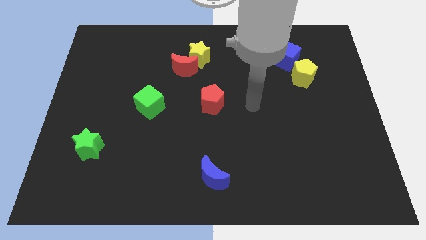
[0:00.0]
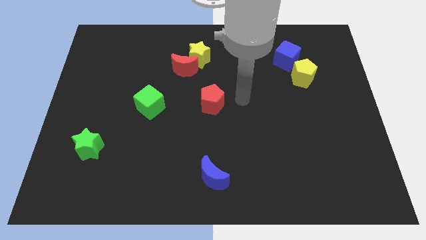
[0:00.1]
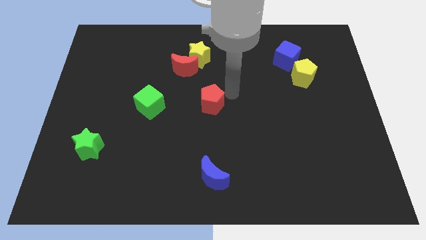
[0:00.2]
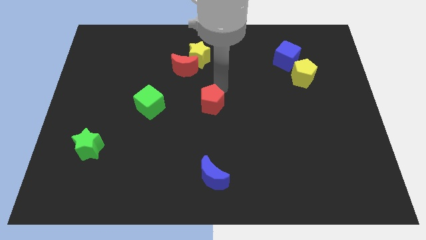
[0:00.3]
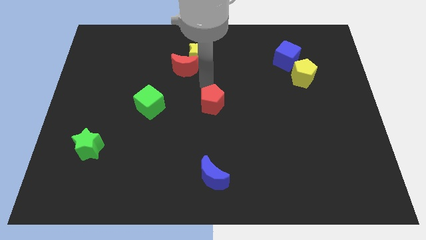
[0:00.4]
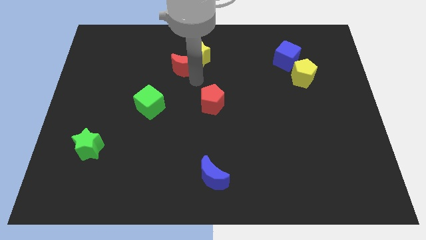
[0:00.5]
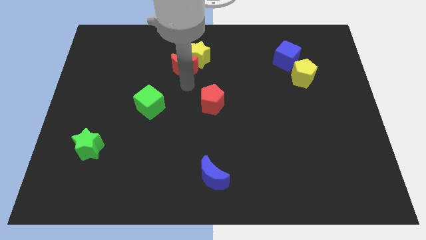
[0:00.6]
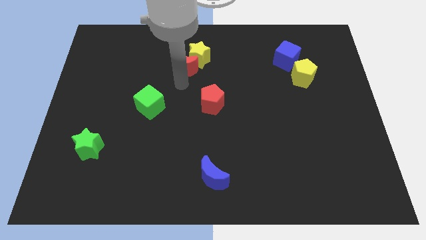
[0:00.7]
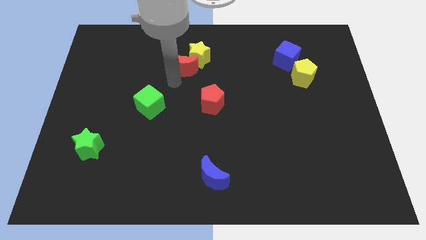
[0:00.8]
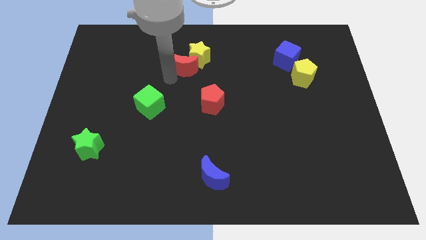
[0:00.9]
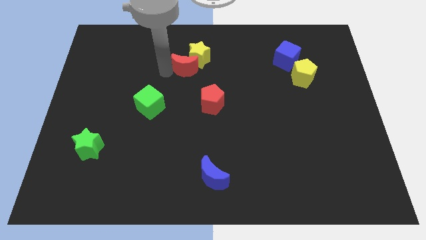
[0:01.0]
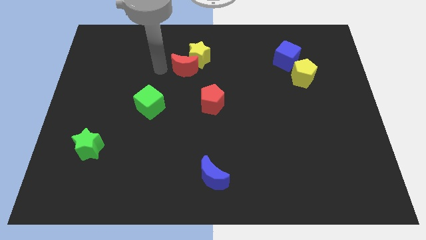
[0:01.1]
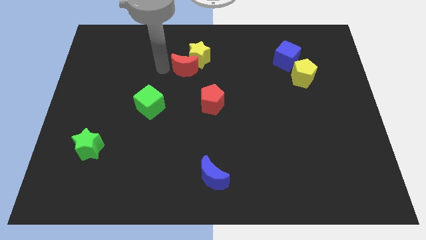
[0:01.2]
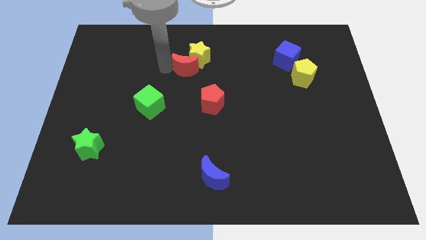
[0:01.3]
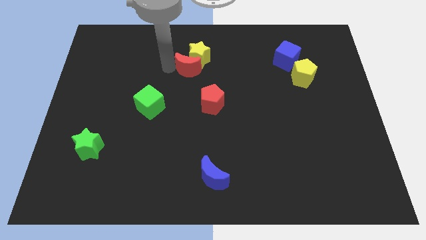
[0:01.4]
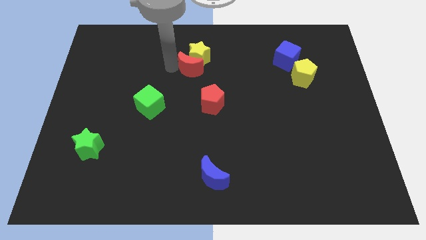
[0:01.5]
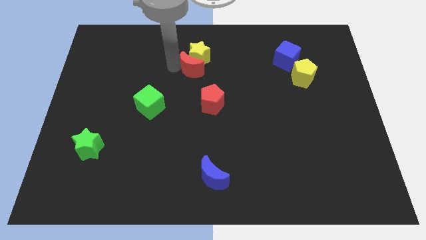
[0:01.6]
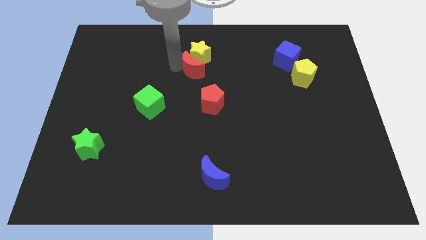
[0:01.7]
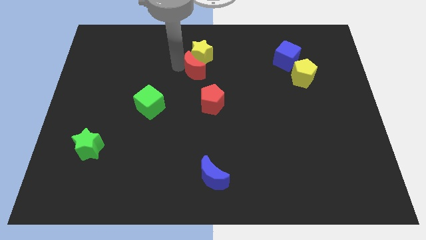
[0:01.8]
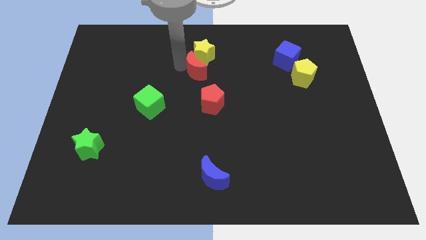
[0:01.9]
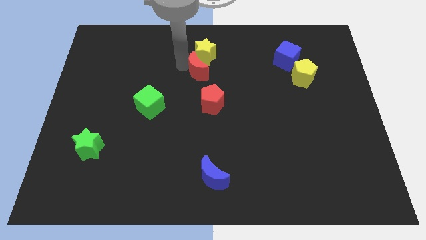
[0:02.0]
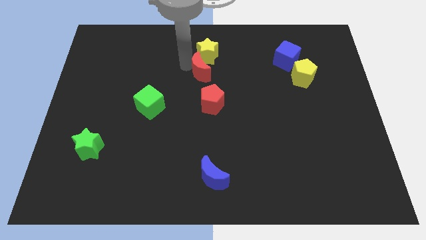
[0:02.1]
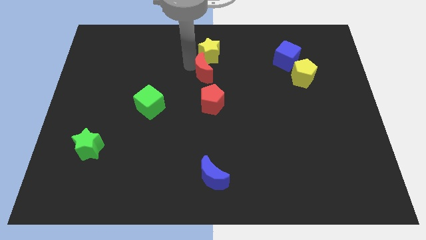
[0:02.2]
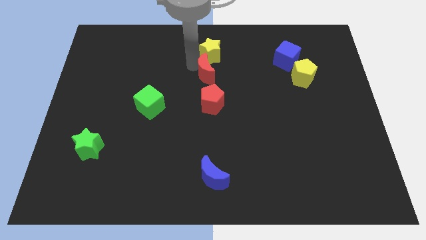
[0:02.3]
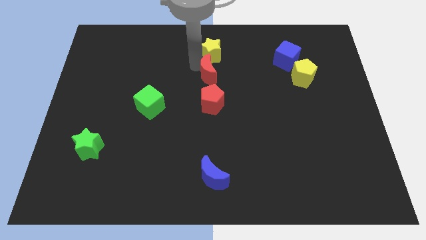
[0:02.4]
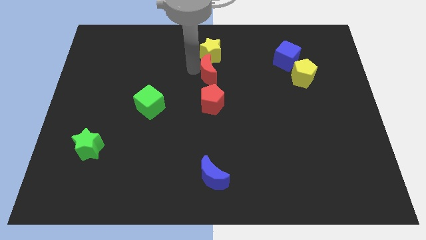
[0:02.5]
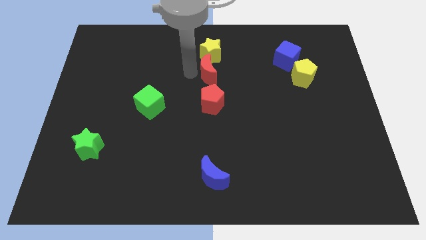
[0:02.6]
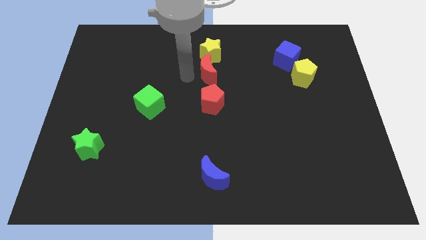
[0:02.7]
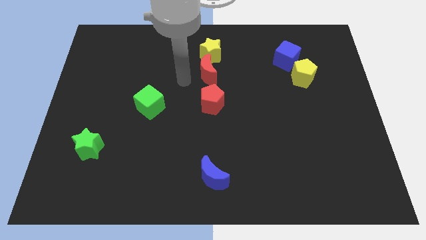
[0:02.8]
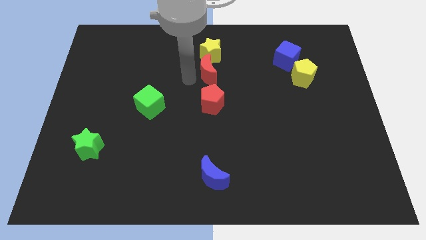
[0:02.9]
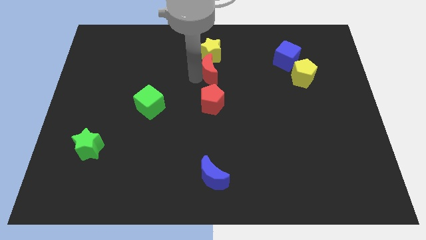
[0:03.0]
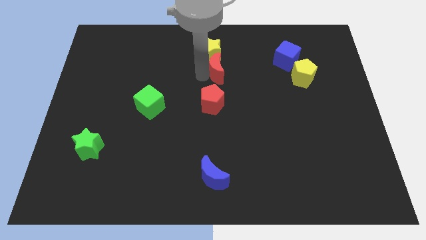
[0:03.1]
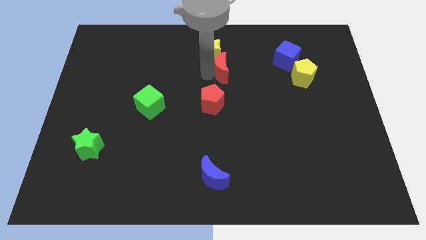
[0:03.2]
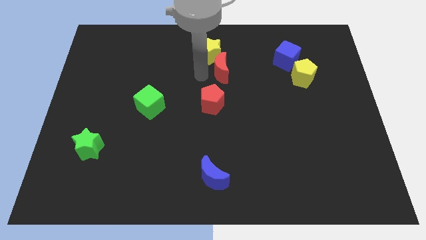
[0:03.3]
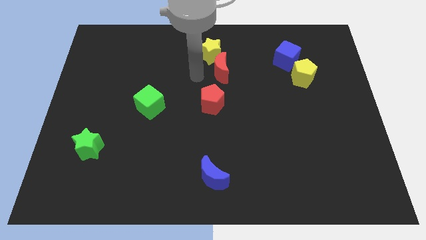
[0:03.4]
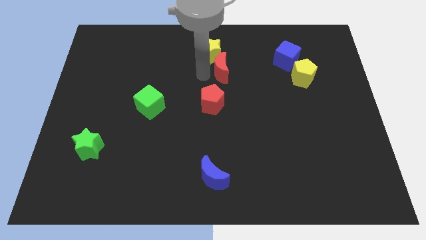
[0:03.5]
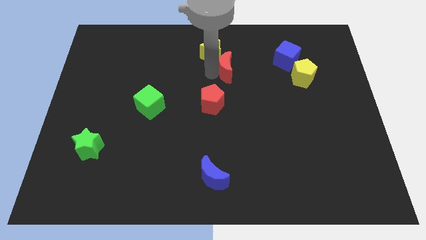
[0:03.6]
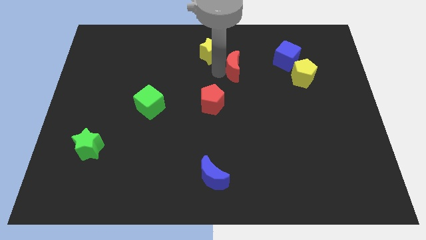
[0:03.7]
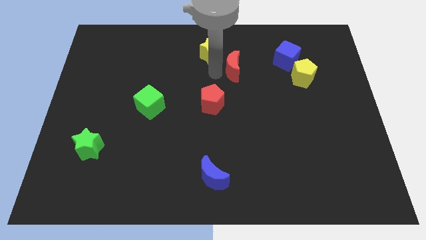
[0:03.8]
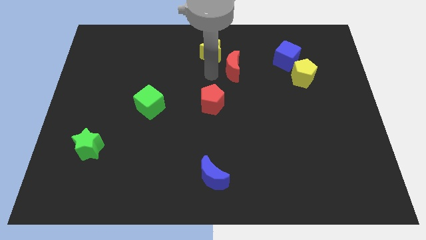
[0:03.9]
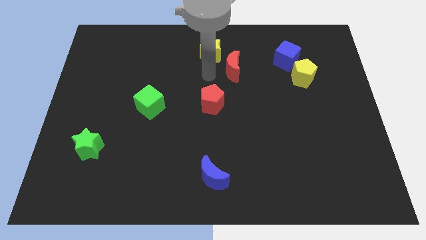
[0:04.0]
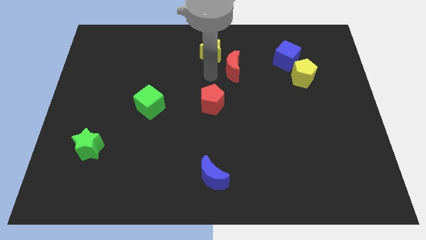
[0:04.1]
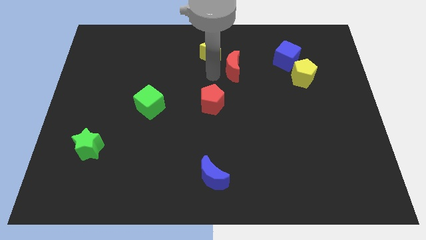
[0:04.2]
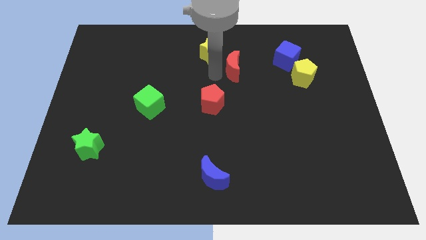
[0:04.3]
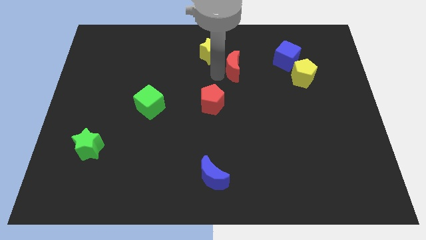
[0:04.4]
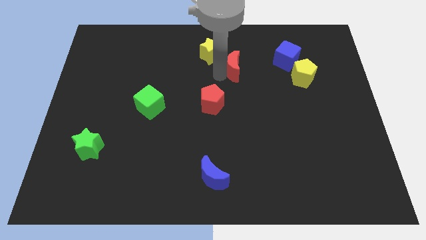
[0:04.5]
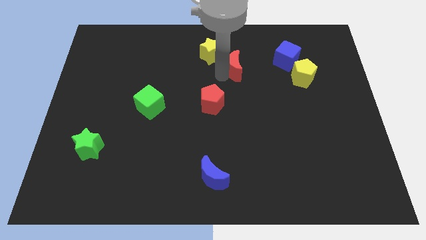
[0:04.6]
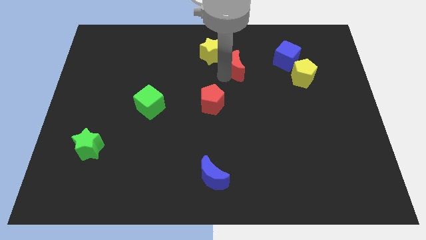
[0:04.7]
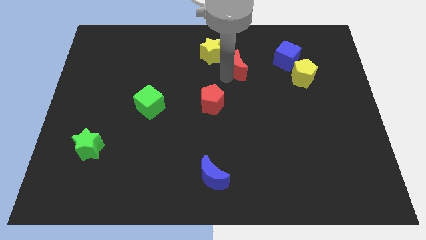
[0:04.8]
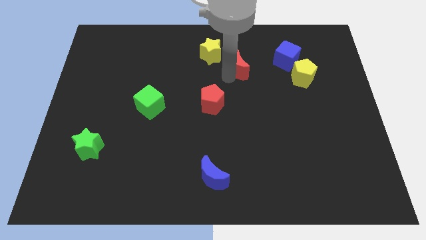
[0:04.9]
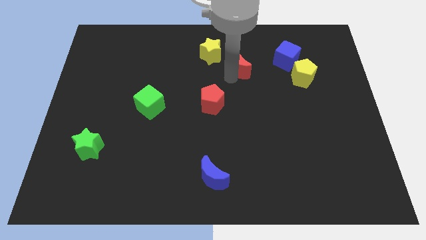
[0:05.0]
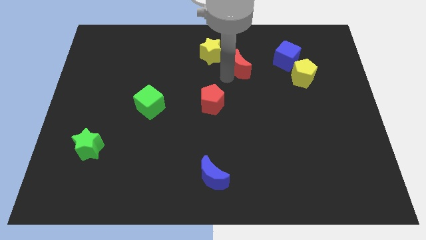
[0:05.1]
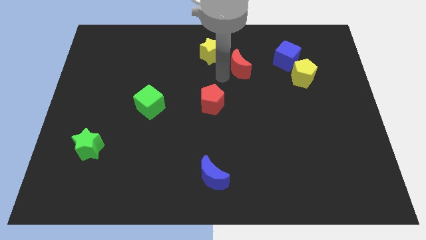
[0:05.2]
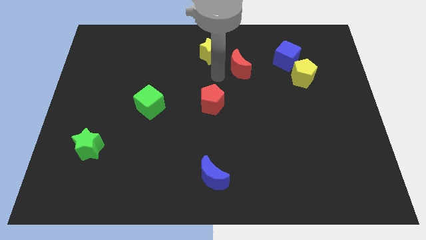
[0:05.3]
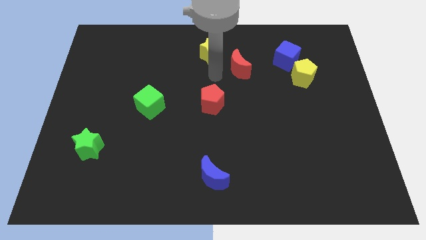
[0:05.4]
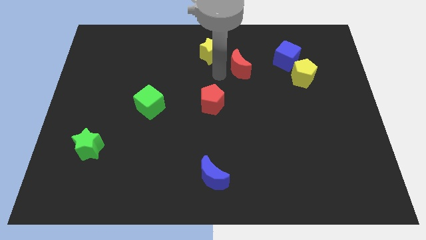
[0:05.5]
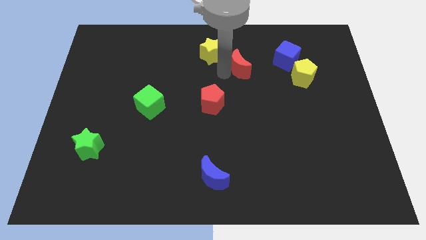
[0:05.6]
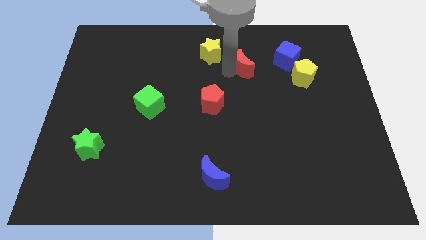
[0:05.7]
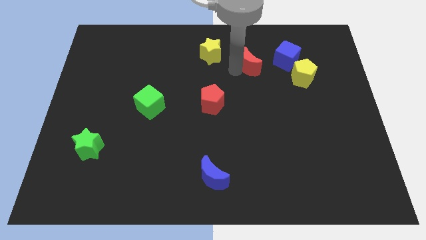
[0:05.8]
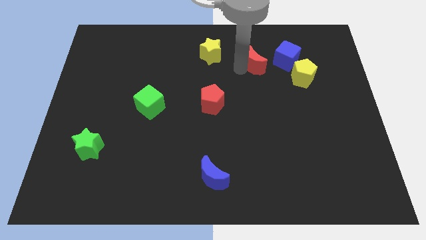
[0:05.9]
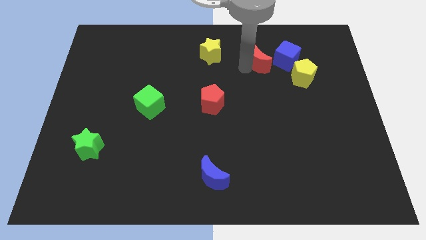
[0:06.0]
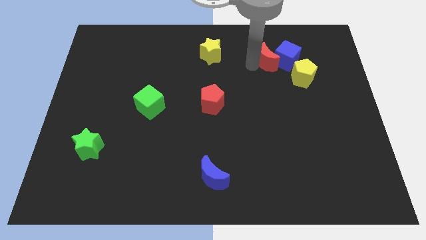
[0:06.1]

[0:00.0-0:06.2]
push the red moon close to the blue cube

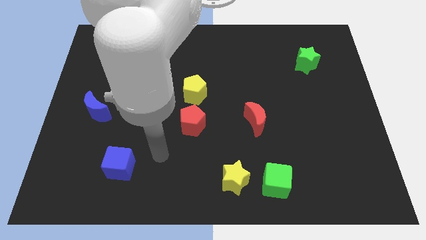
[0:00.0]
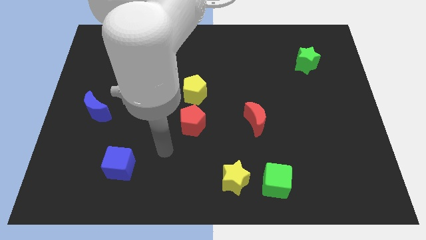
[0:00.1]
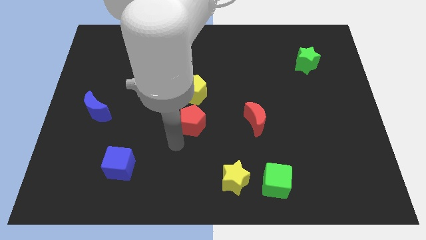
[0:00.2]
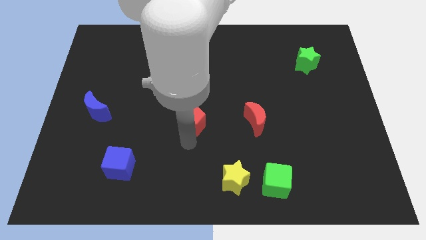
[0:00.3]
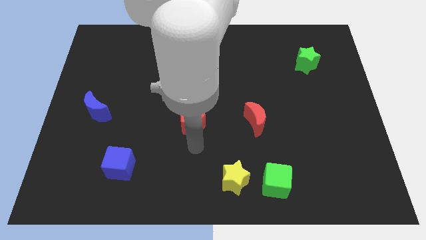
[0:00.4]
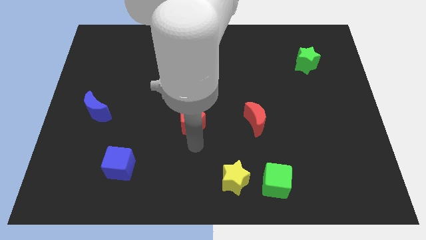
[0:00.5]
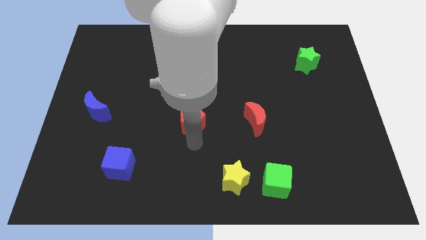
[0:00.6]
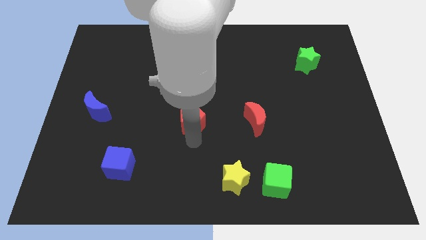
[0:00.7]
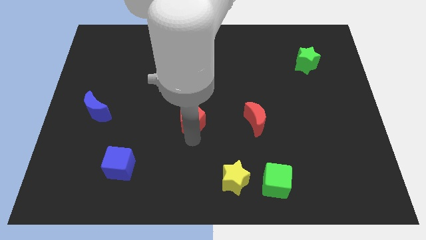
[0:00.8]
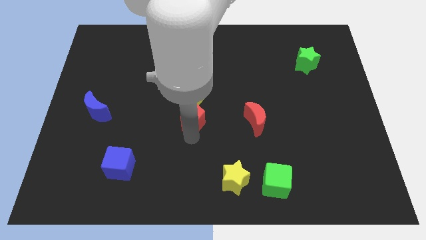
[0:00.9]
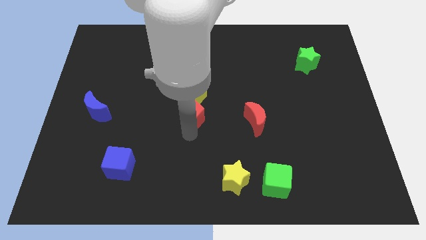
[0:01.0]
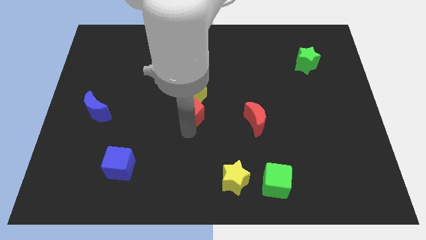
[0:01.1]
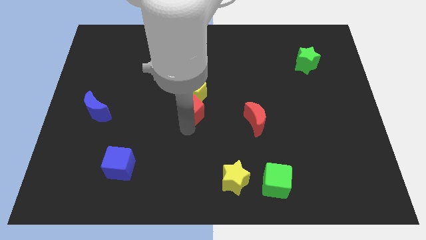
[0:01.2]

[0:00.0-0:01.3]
push the red pentagon next to the yellow pentagon

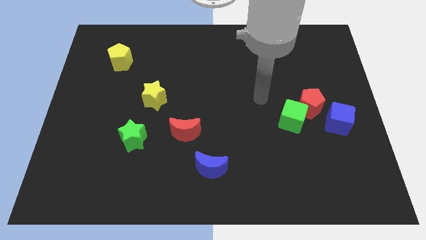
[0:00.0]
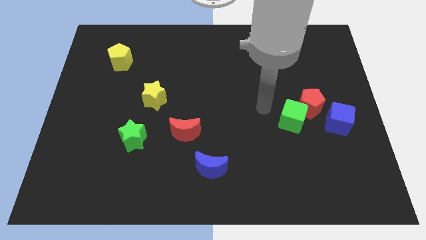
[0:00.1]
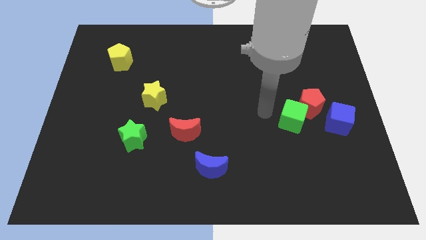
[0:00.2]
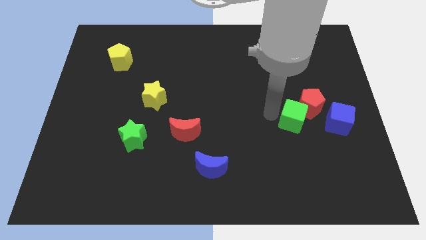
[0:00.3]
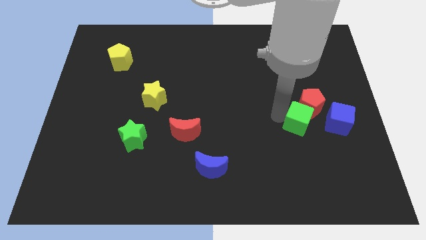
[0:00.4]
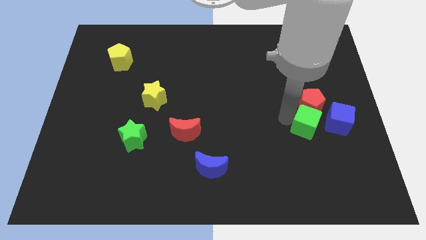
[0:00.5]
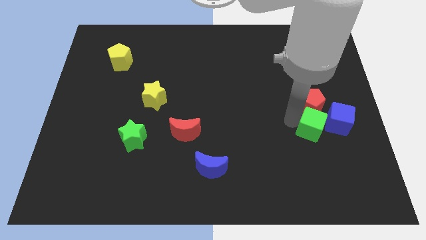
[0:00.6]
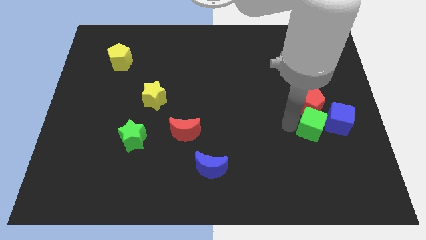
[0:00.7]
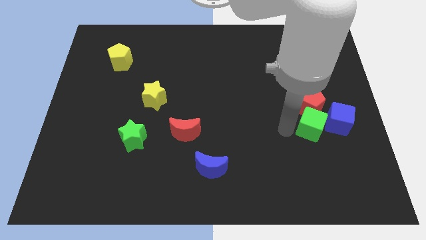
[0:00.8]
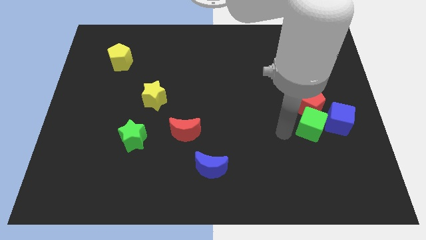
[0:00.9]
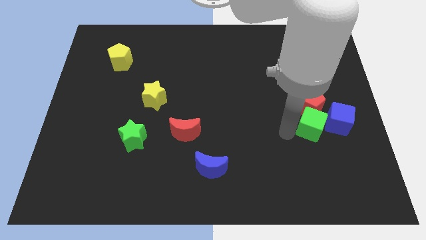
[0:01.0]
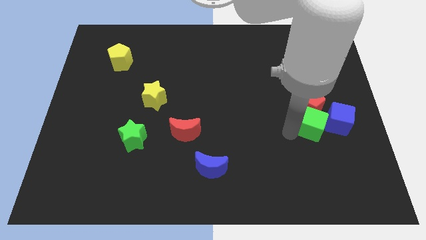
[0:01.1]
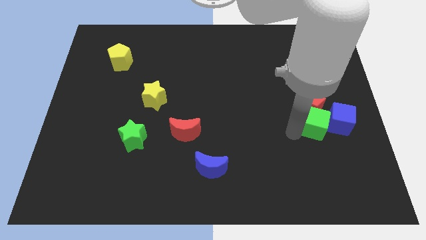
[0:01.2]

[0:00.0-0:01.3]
move the green cube next to the blue cube
